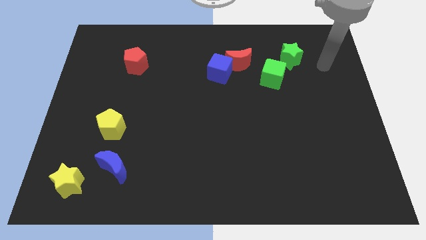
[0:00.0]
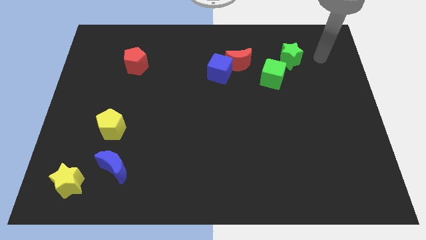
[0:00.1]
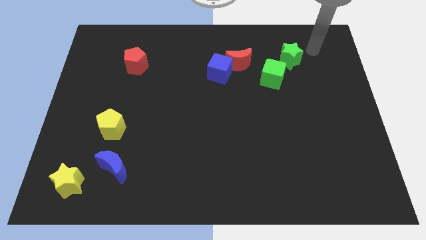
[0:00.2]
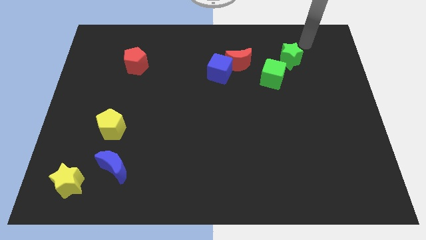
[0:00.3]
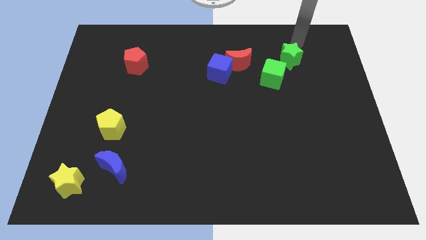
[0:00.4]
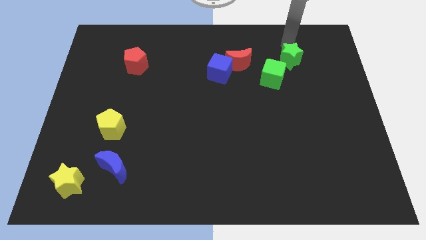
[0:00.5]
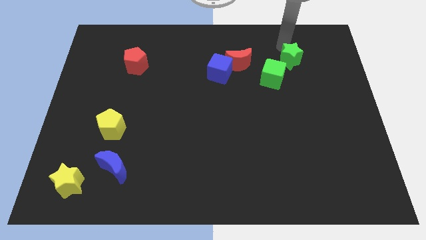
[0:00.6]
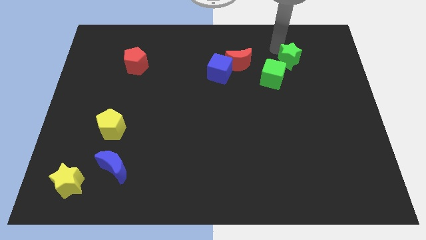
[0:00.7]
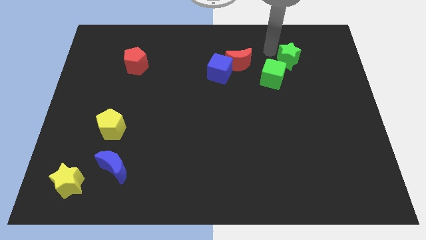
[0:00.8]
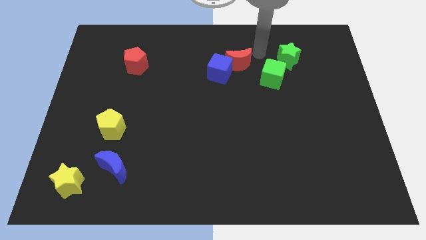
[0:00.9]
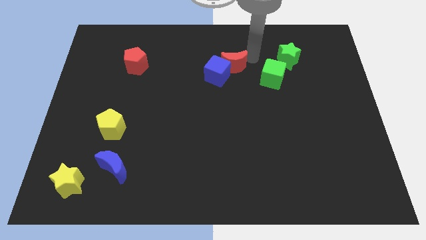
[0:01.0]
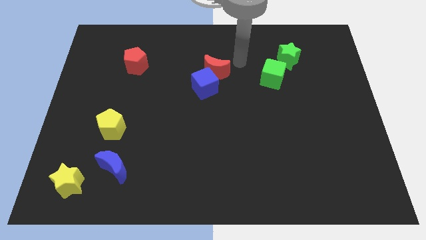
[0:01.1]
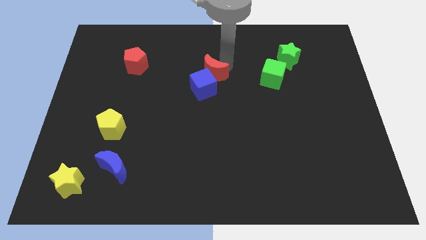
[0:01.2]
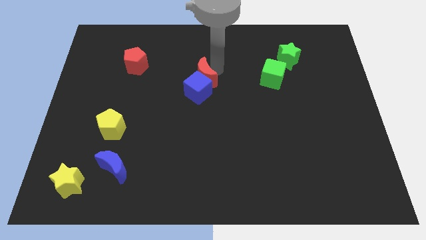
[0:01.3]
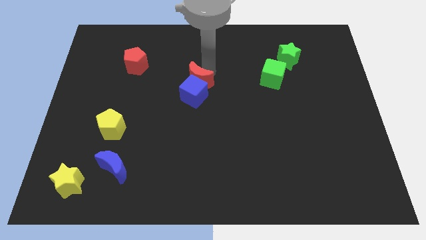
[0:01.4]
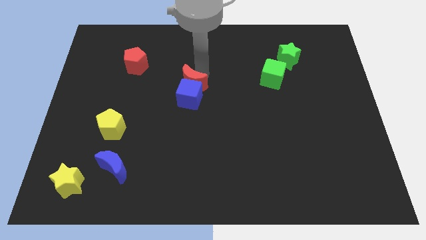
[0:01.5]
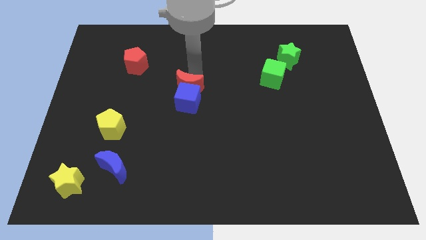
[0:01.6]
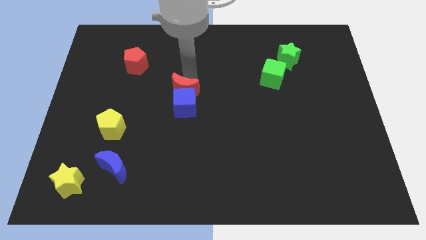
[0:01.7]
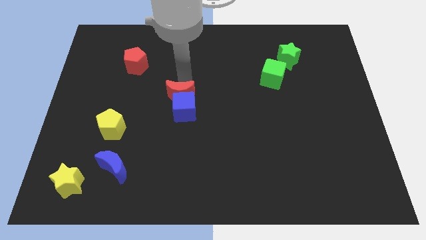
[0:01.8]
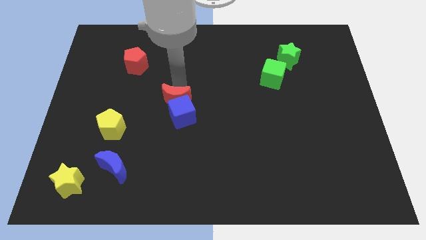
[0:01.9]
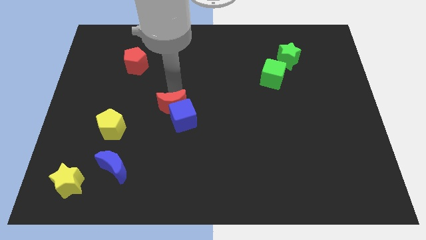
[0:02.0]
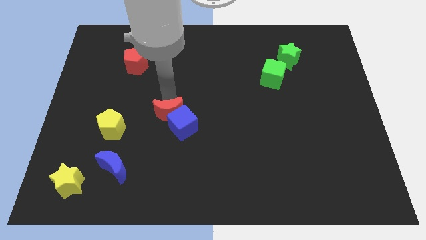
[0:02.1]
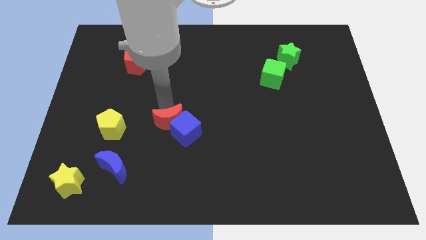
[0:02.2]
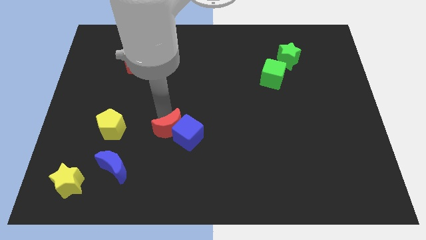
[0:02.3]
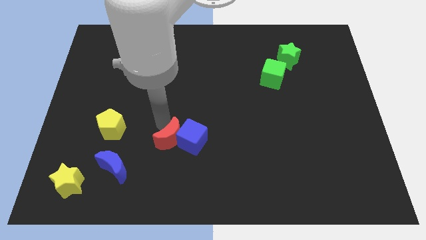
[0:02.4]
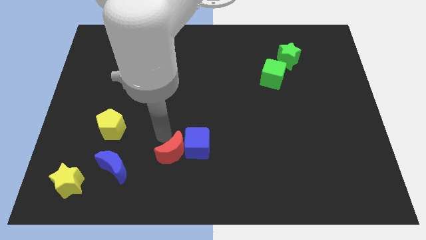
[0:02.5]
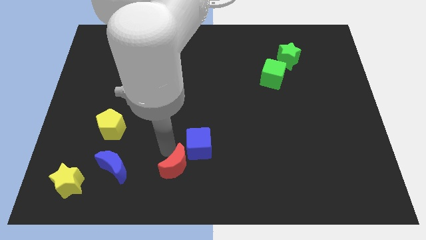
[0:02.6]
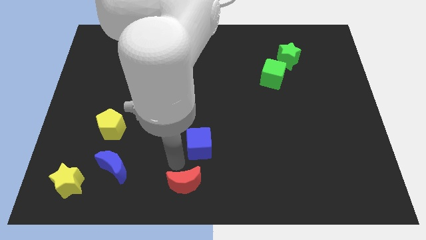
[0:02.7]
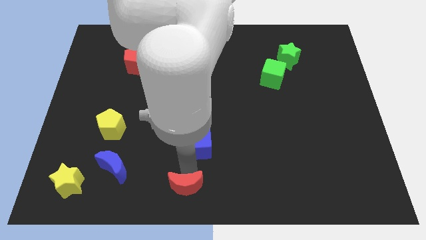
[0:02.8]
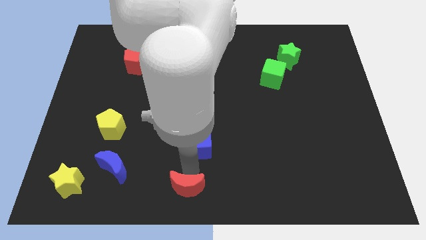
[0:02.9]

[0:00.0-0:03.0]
separate the blue cube from the red moon

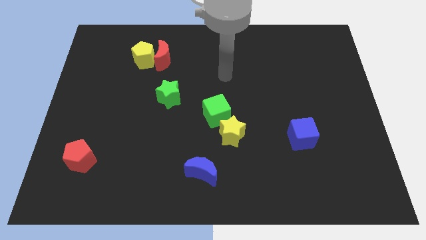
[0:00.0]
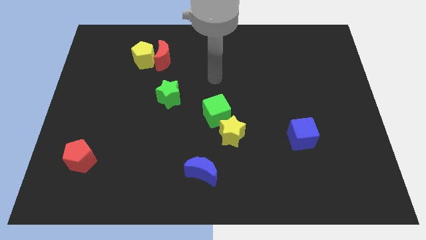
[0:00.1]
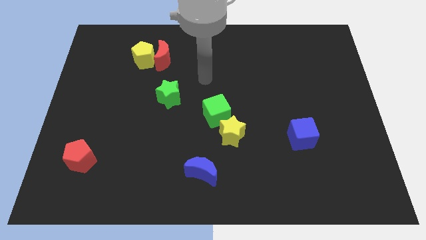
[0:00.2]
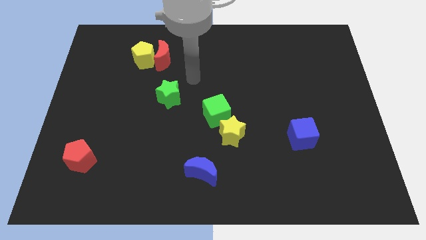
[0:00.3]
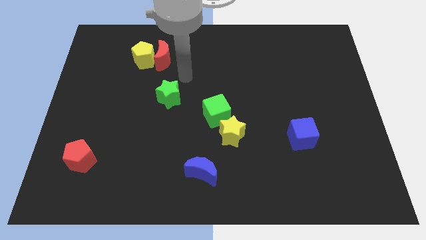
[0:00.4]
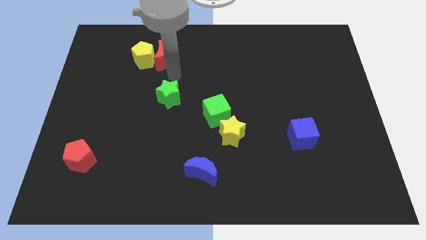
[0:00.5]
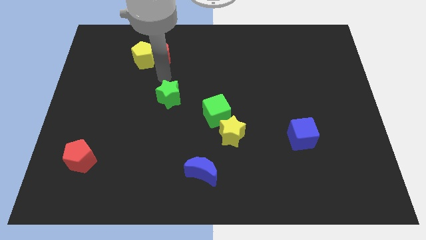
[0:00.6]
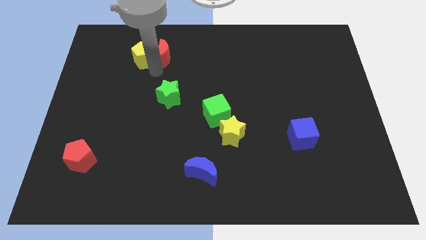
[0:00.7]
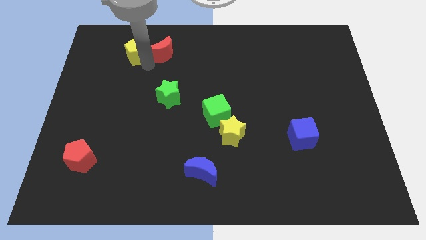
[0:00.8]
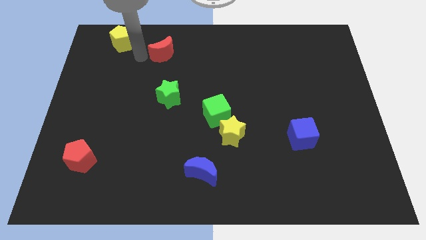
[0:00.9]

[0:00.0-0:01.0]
pull the red moon apart from the yellow pentagon

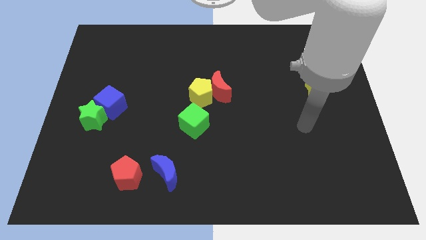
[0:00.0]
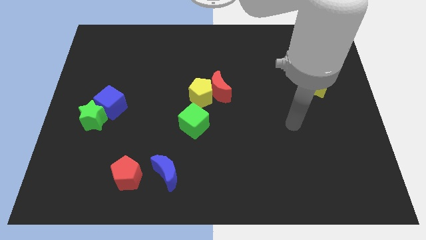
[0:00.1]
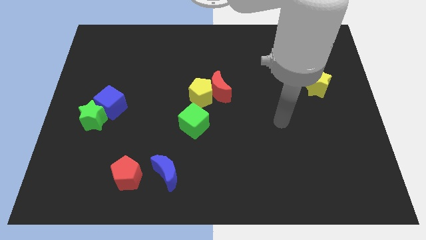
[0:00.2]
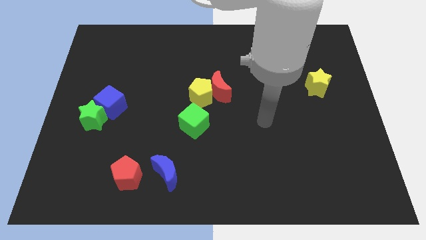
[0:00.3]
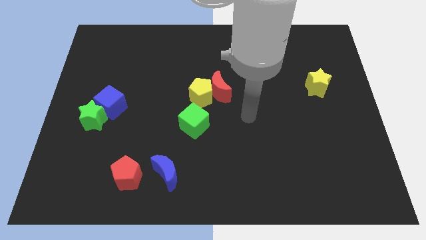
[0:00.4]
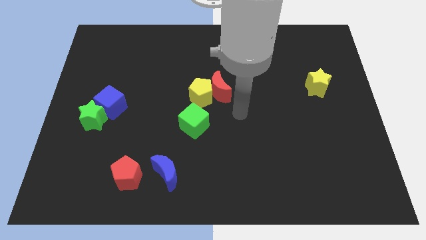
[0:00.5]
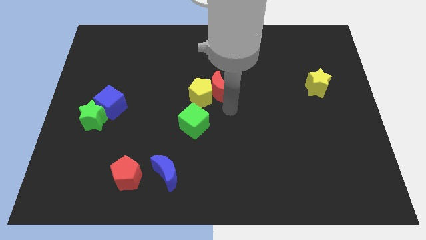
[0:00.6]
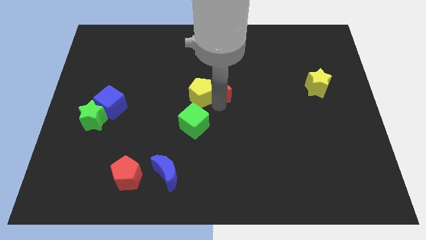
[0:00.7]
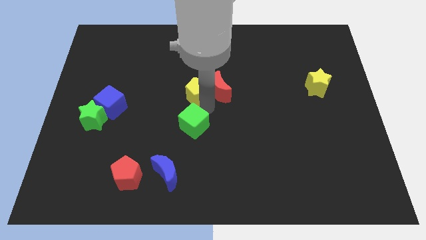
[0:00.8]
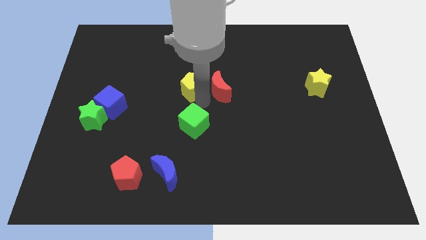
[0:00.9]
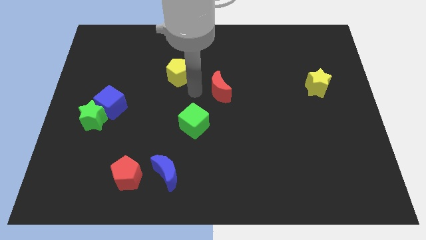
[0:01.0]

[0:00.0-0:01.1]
move the red moon away from the yellow pentagon

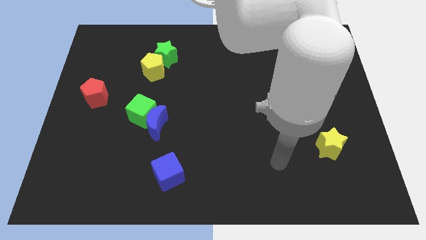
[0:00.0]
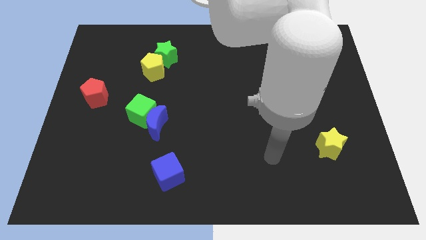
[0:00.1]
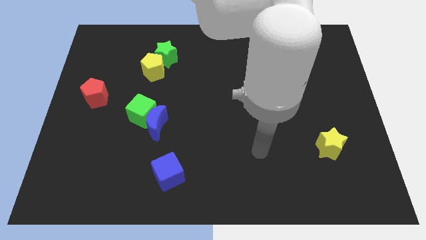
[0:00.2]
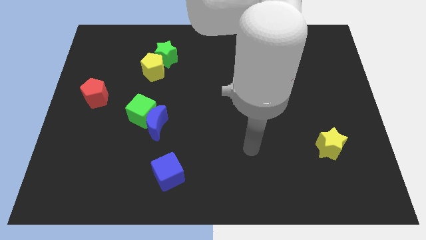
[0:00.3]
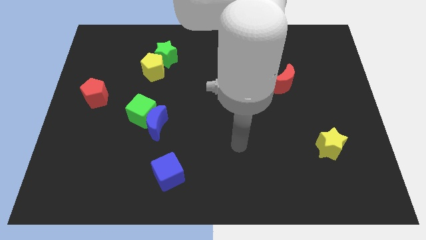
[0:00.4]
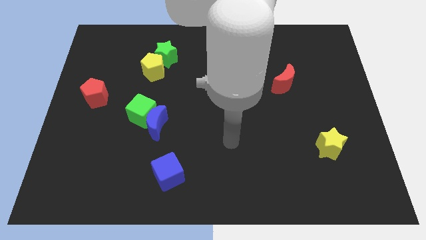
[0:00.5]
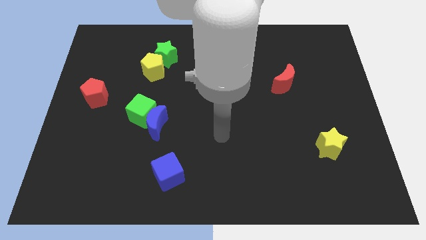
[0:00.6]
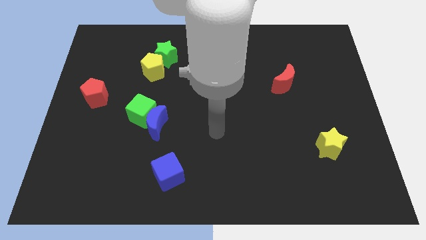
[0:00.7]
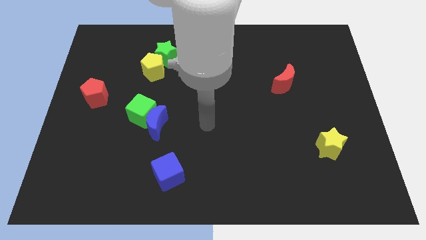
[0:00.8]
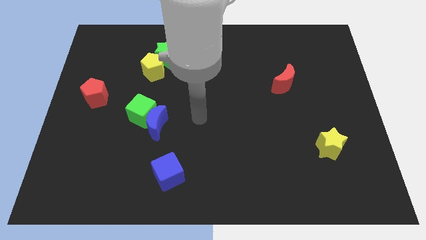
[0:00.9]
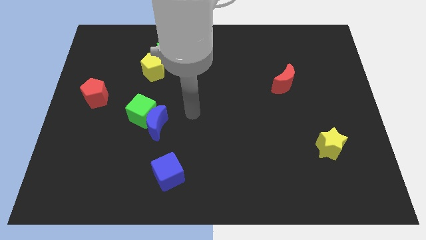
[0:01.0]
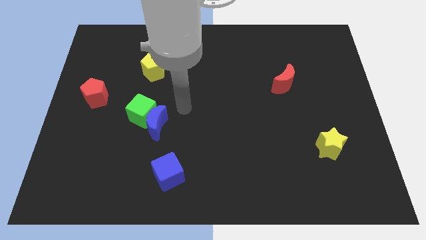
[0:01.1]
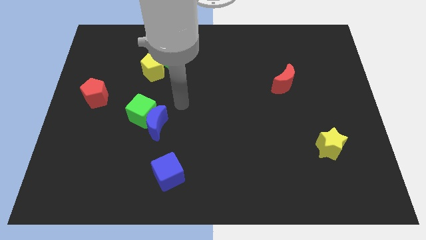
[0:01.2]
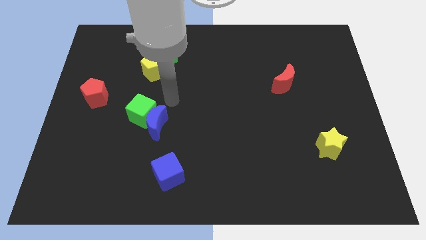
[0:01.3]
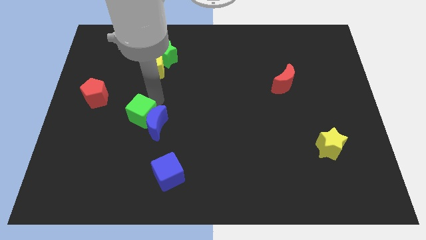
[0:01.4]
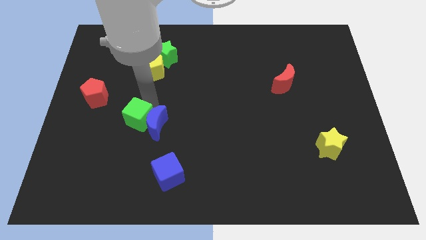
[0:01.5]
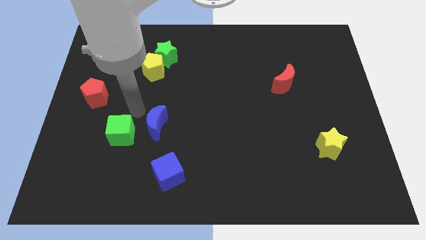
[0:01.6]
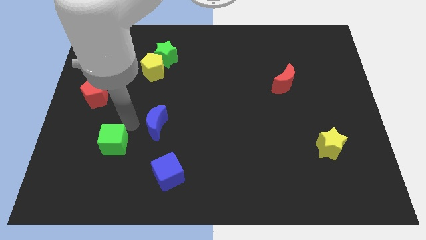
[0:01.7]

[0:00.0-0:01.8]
separate the blue moon from the green cube

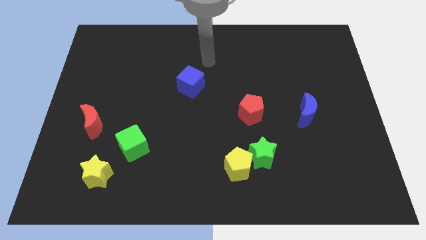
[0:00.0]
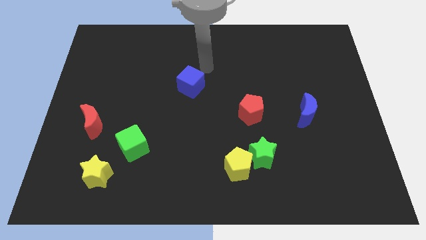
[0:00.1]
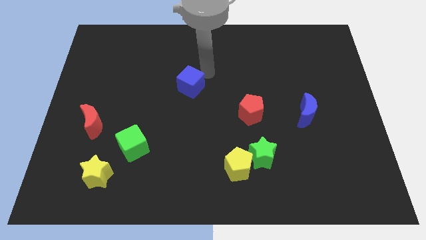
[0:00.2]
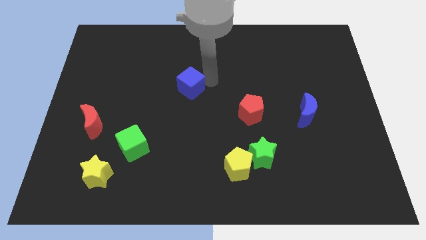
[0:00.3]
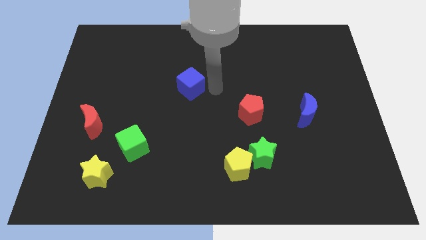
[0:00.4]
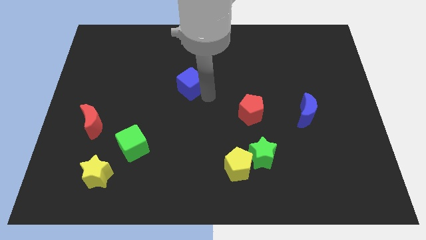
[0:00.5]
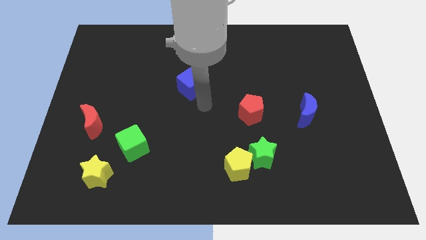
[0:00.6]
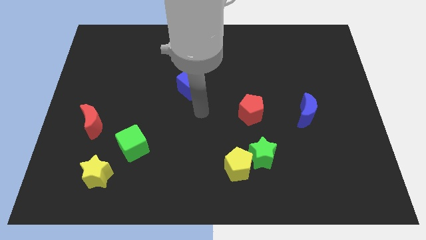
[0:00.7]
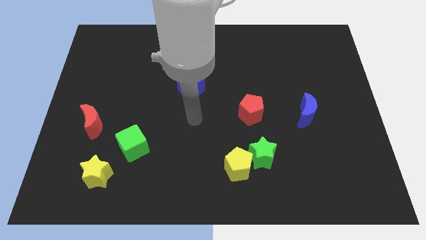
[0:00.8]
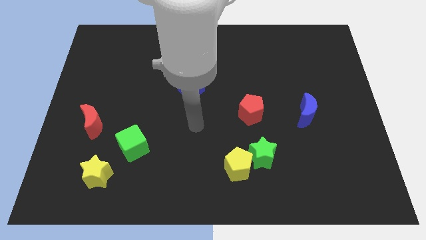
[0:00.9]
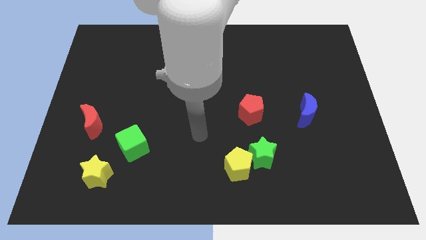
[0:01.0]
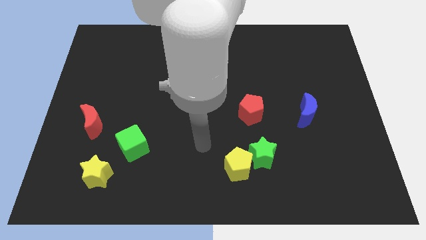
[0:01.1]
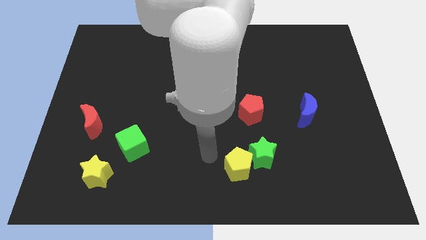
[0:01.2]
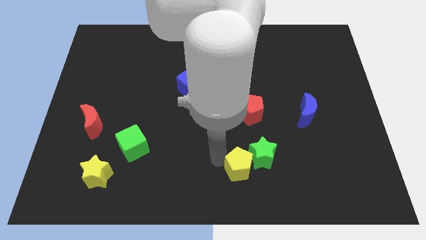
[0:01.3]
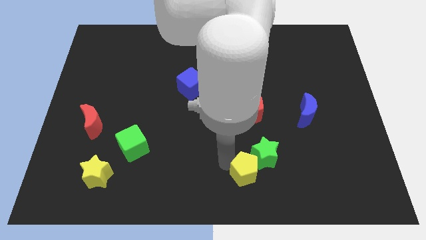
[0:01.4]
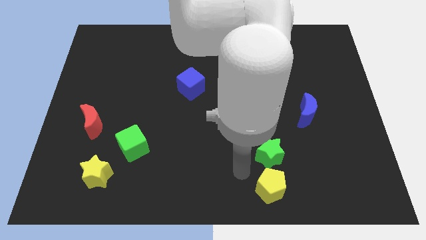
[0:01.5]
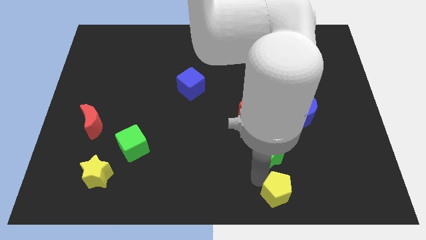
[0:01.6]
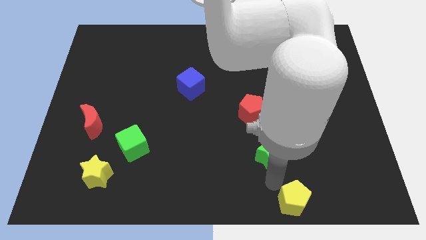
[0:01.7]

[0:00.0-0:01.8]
move the green star away from the yellow pentagon

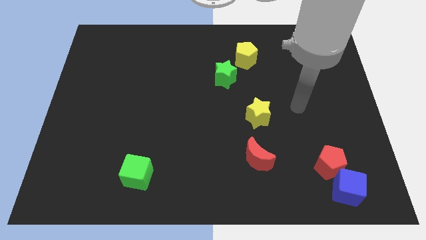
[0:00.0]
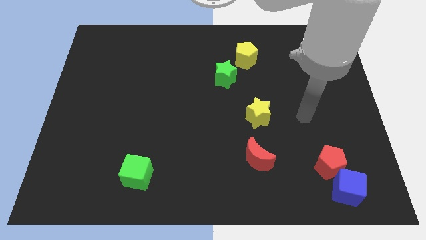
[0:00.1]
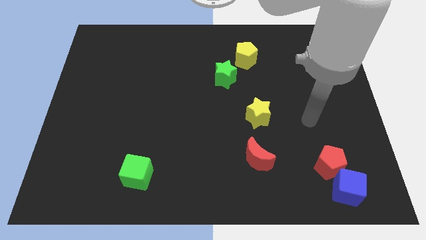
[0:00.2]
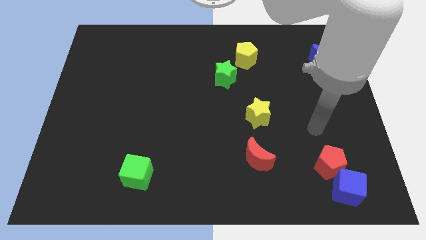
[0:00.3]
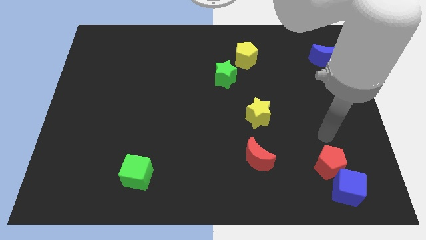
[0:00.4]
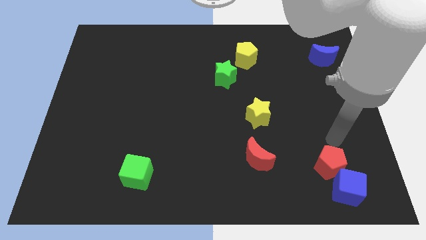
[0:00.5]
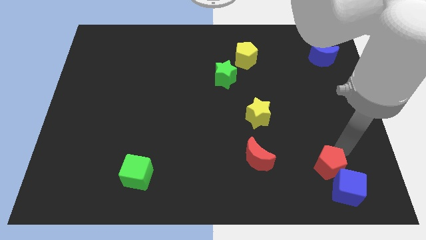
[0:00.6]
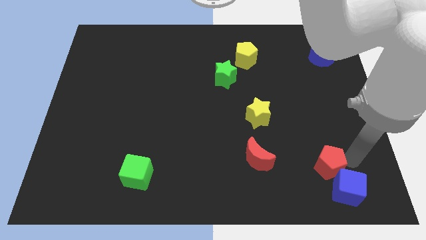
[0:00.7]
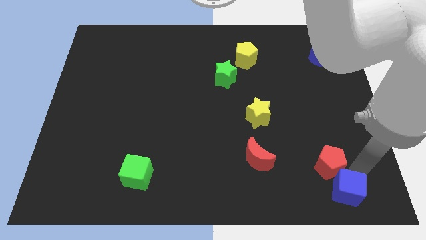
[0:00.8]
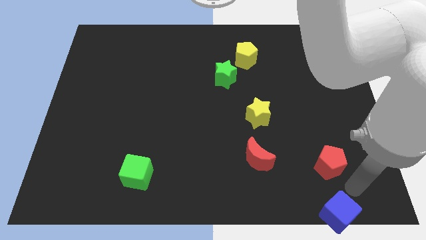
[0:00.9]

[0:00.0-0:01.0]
separate the red pentagon from the blue cube
